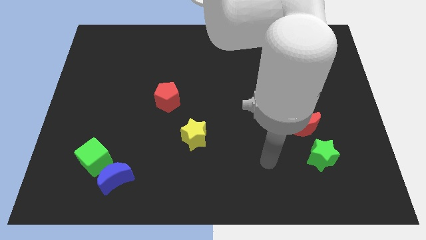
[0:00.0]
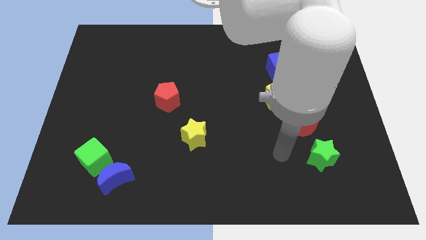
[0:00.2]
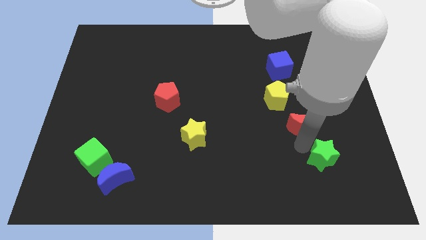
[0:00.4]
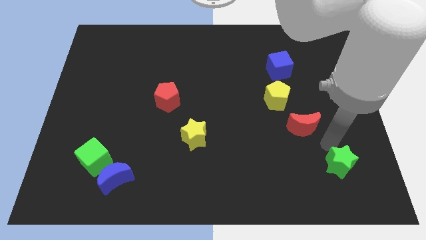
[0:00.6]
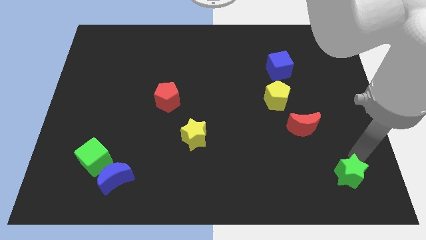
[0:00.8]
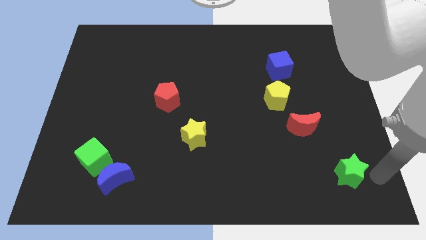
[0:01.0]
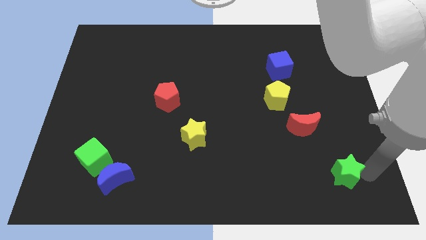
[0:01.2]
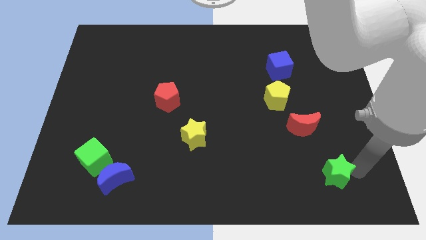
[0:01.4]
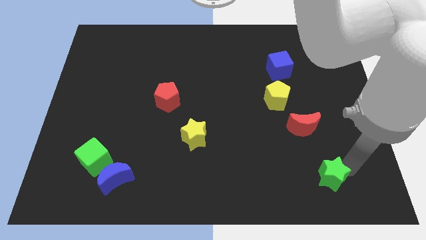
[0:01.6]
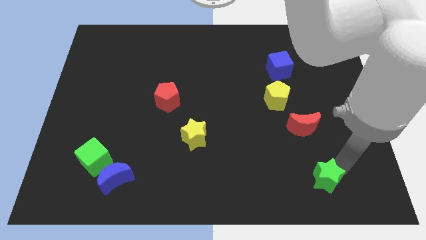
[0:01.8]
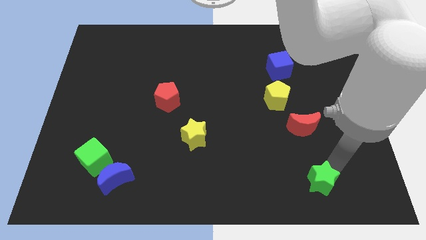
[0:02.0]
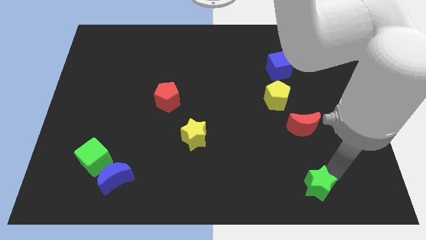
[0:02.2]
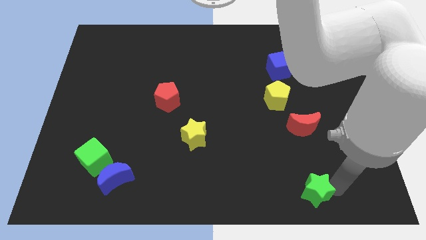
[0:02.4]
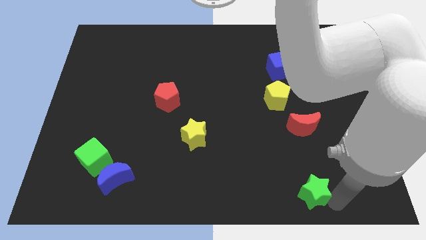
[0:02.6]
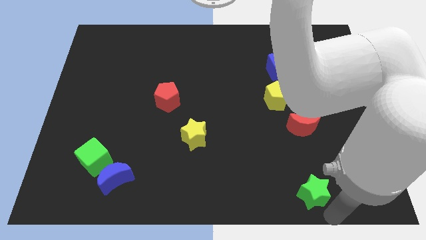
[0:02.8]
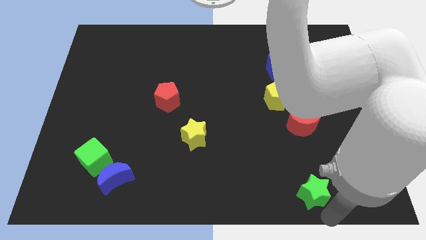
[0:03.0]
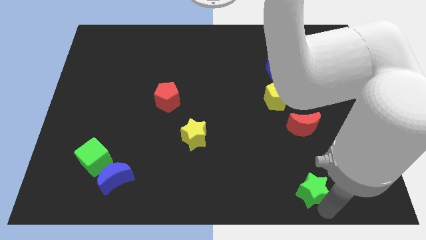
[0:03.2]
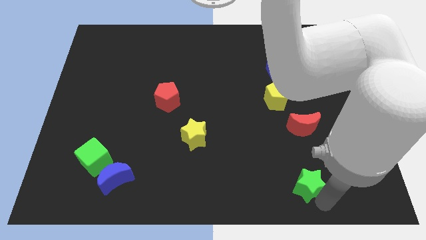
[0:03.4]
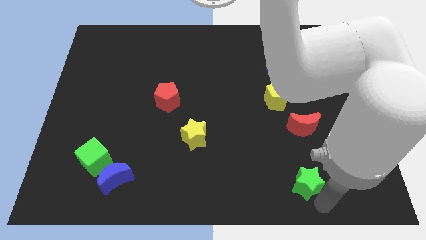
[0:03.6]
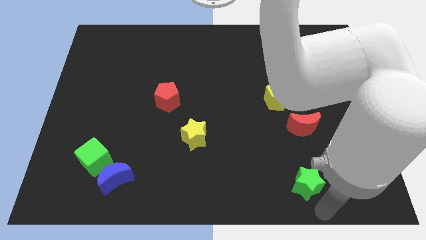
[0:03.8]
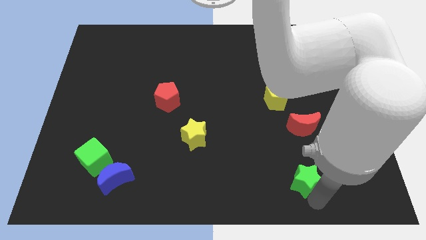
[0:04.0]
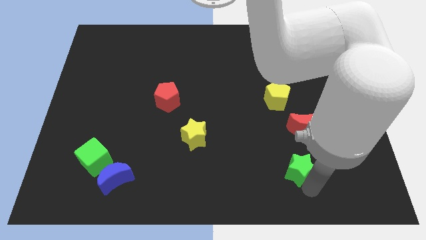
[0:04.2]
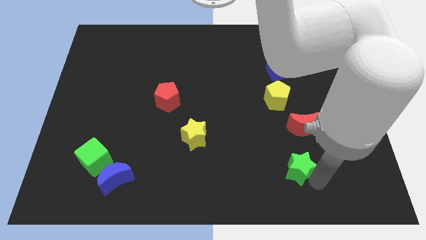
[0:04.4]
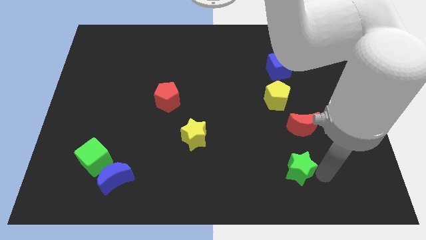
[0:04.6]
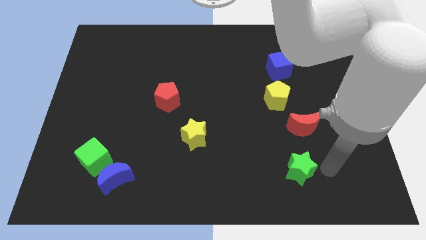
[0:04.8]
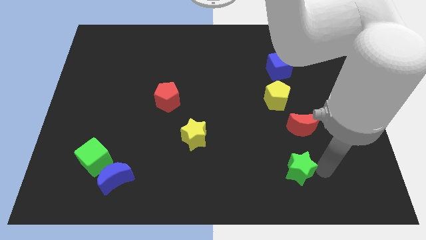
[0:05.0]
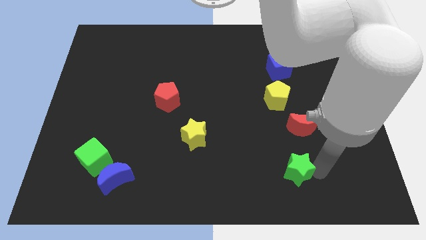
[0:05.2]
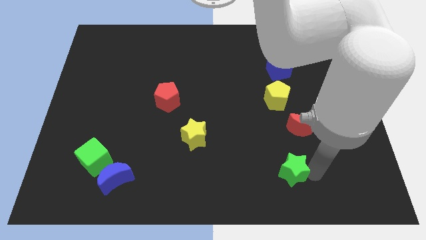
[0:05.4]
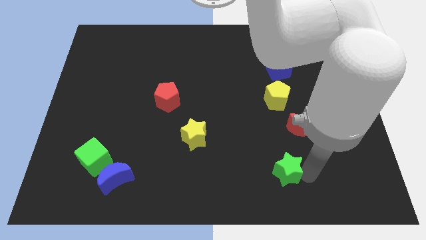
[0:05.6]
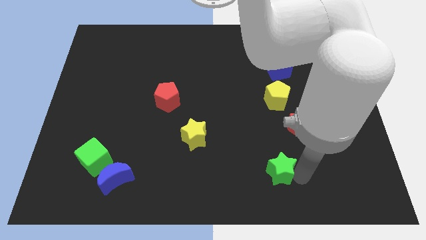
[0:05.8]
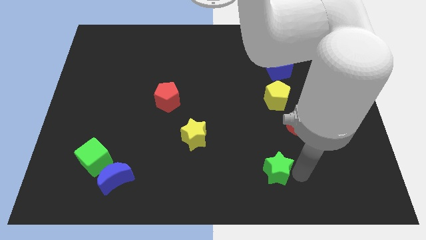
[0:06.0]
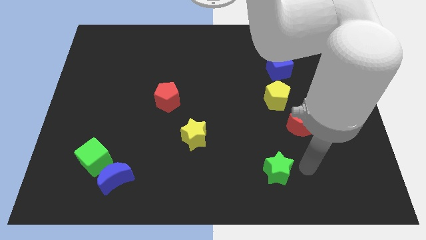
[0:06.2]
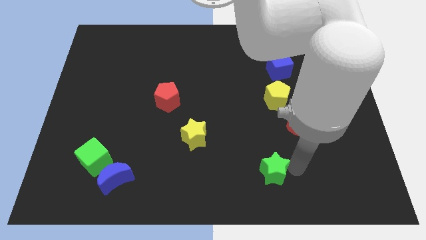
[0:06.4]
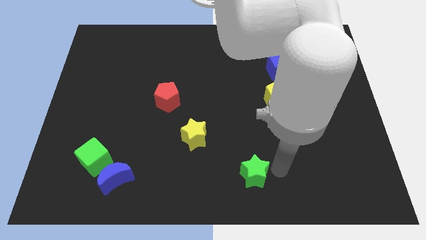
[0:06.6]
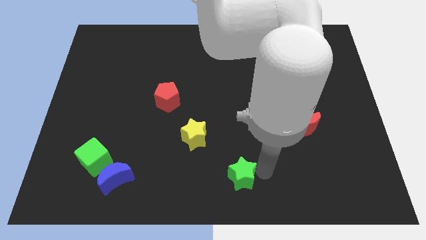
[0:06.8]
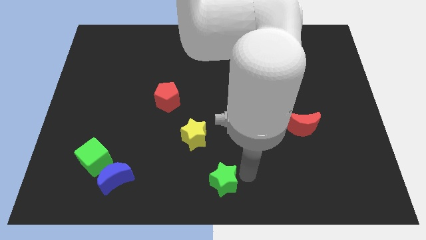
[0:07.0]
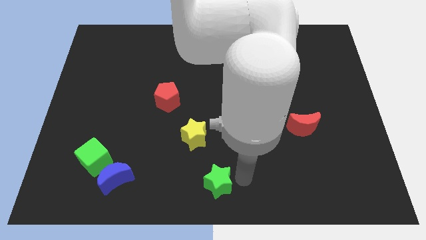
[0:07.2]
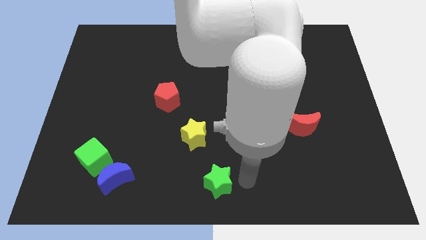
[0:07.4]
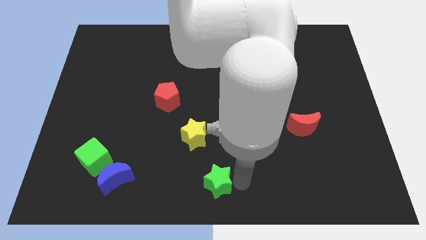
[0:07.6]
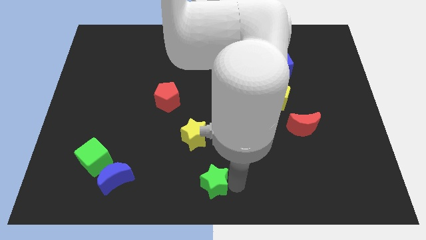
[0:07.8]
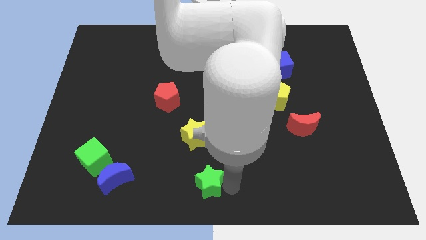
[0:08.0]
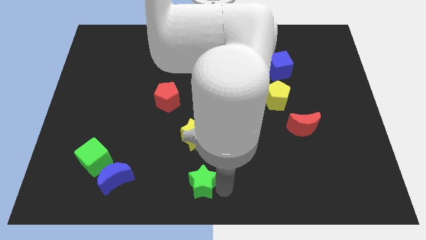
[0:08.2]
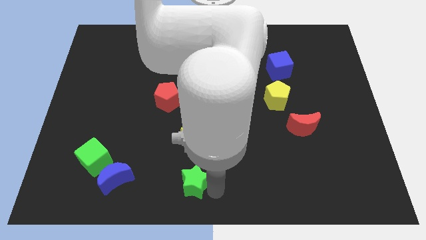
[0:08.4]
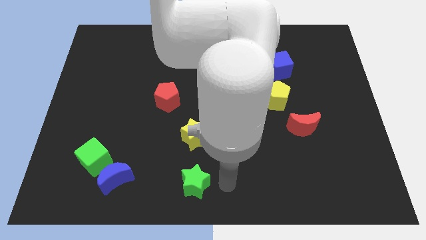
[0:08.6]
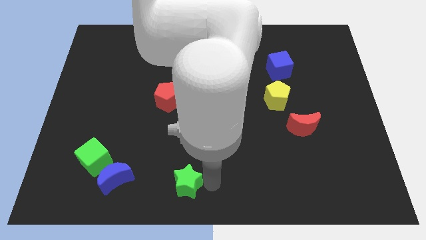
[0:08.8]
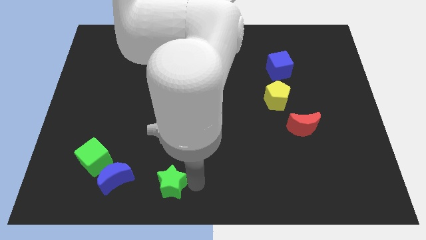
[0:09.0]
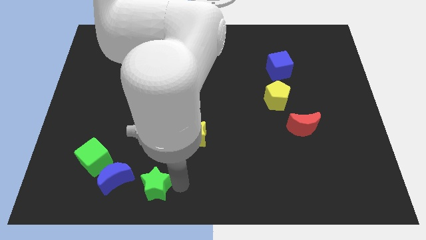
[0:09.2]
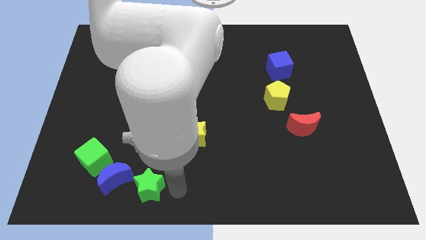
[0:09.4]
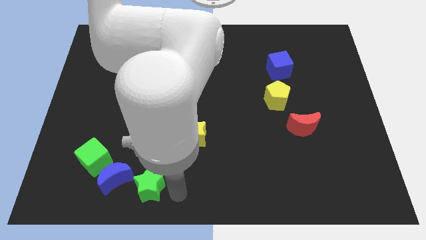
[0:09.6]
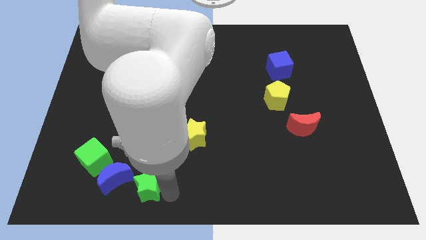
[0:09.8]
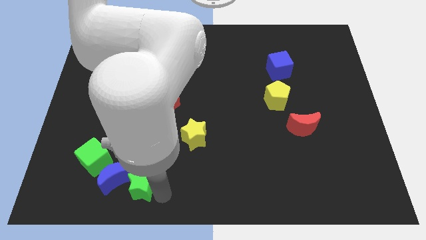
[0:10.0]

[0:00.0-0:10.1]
move the green star close to the blue moon

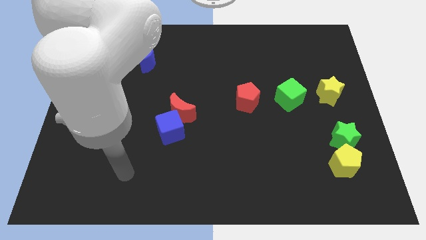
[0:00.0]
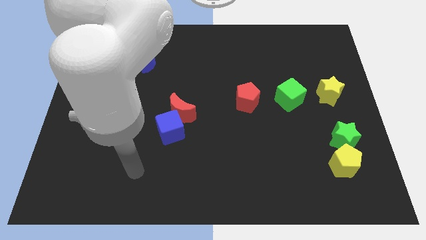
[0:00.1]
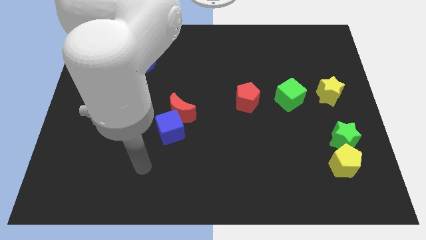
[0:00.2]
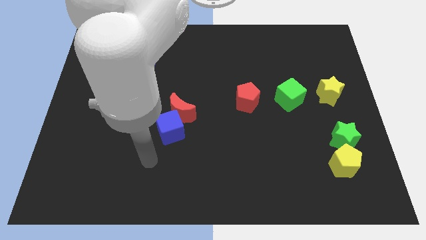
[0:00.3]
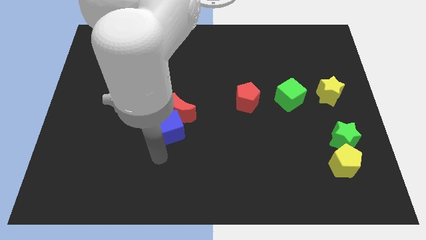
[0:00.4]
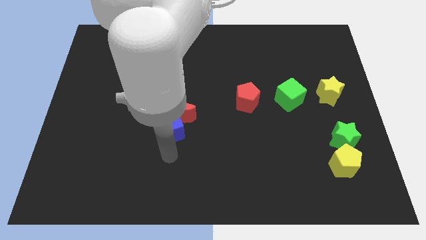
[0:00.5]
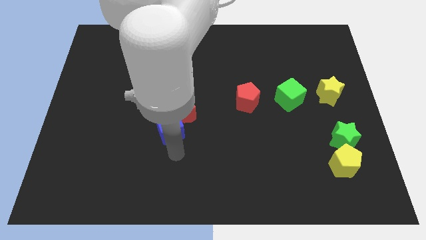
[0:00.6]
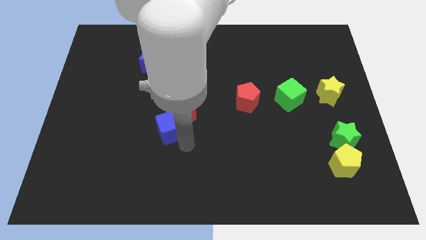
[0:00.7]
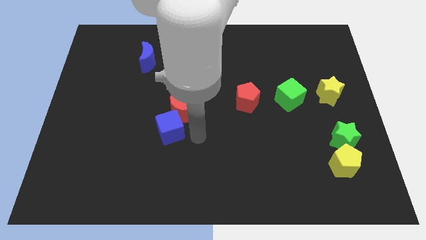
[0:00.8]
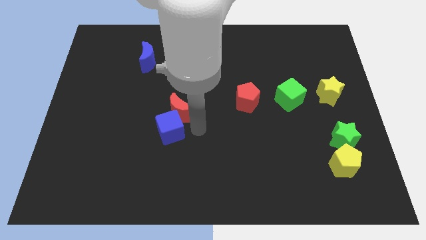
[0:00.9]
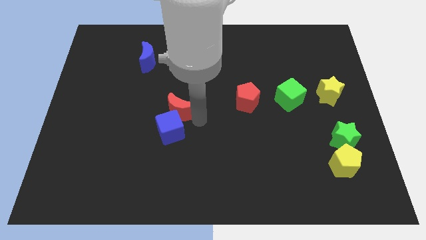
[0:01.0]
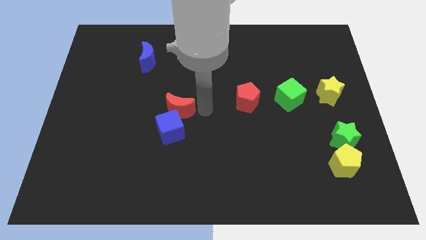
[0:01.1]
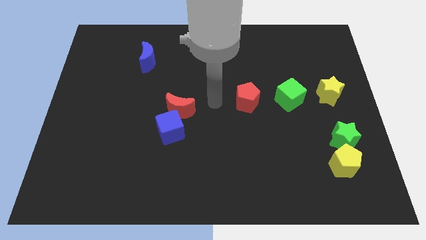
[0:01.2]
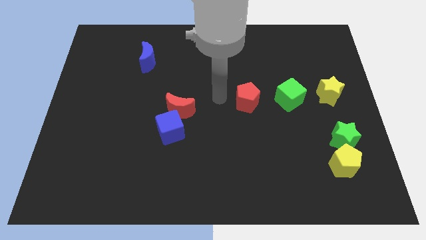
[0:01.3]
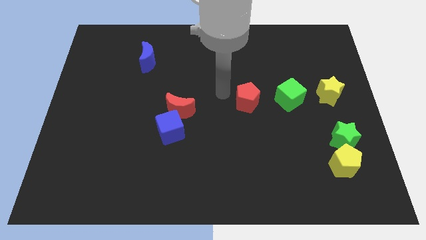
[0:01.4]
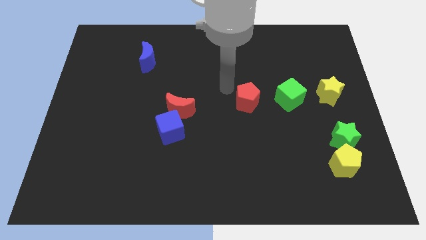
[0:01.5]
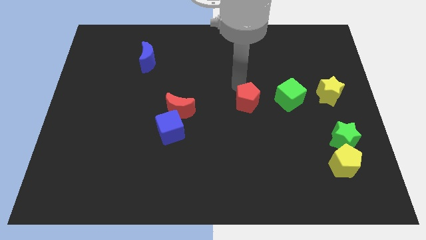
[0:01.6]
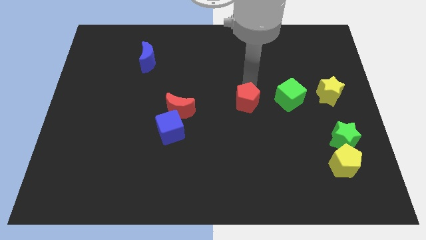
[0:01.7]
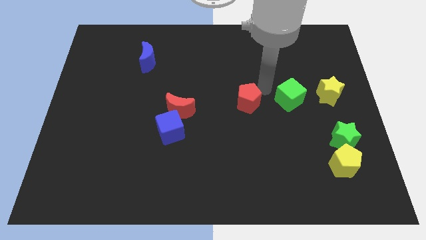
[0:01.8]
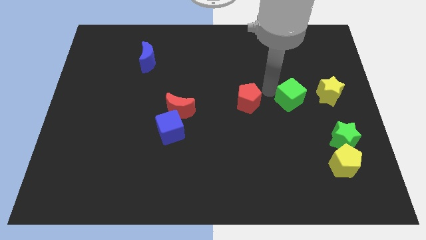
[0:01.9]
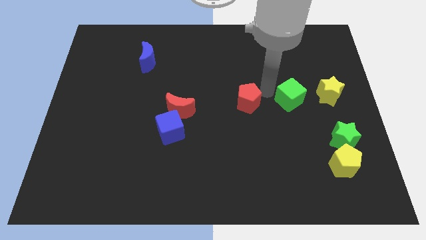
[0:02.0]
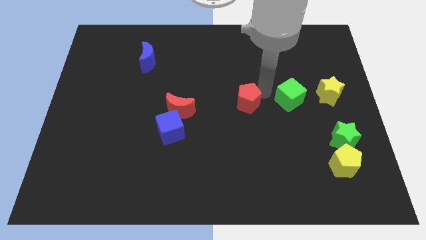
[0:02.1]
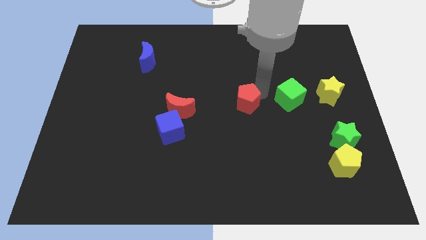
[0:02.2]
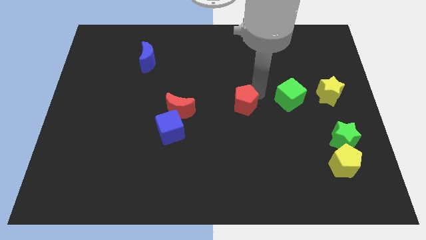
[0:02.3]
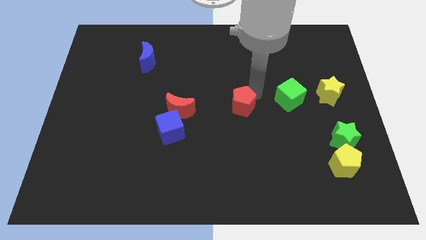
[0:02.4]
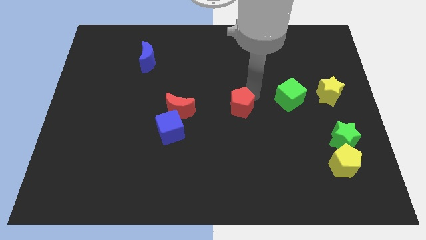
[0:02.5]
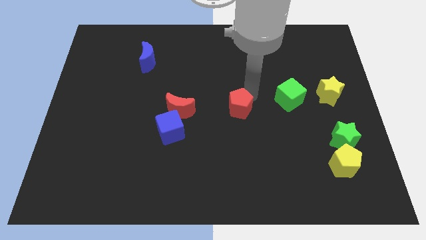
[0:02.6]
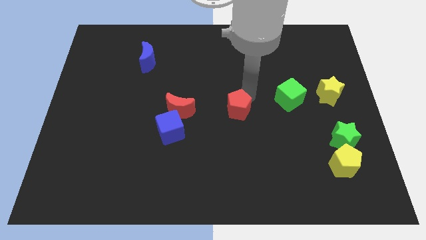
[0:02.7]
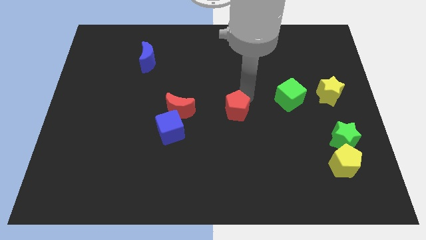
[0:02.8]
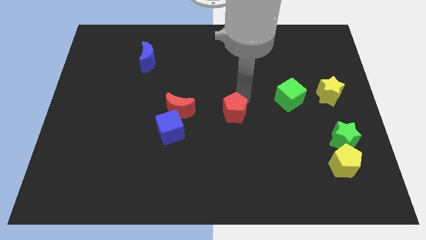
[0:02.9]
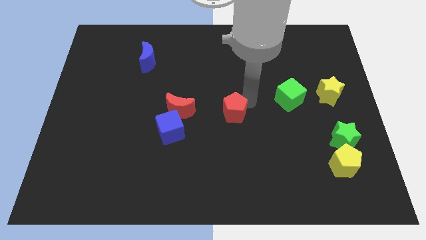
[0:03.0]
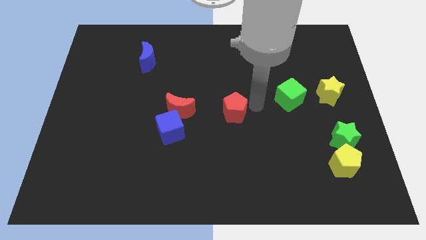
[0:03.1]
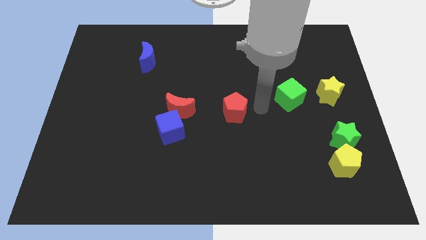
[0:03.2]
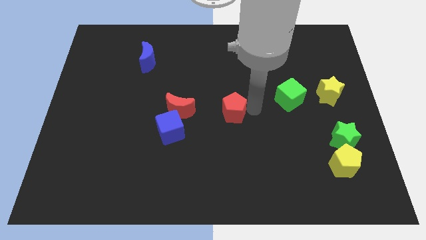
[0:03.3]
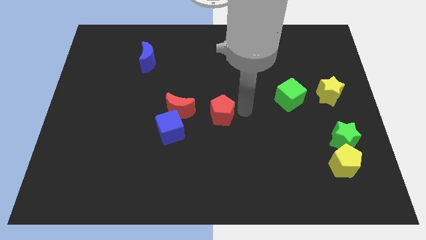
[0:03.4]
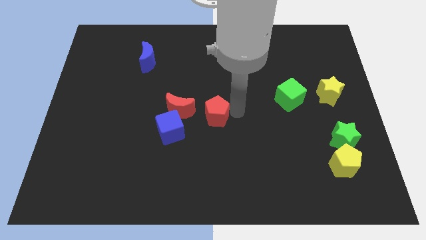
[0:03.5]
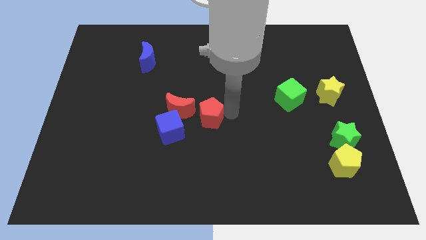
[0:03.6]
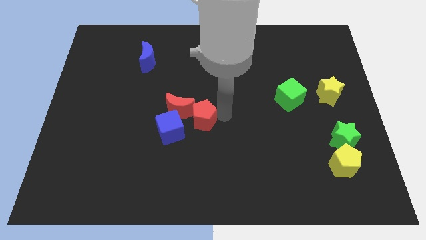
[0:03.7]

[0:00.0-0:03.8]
put the red pentagon close to the red moon
